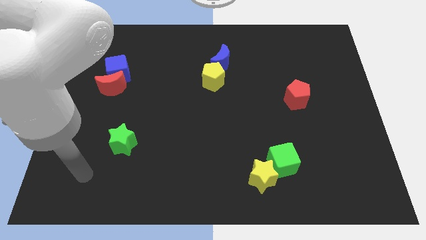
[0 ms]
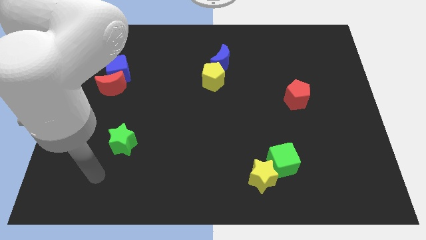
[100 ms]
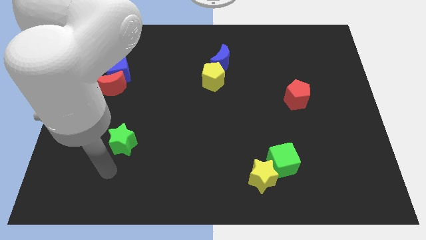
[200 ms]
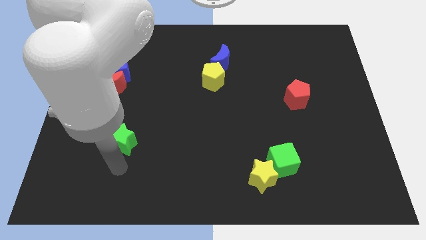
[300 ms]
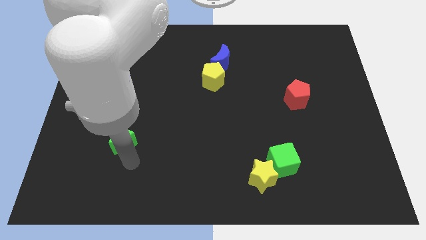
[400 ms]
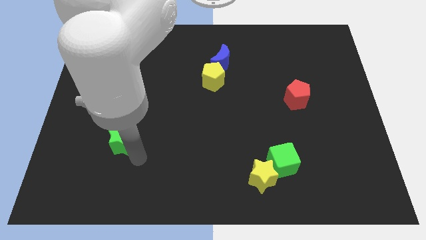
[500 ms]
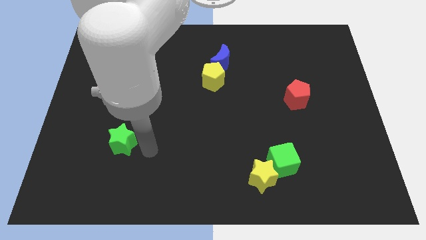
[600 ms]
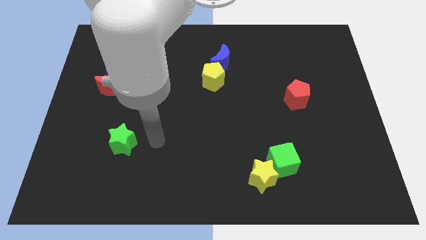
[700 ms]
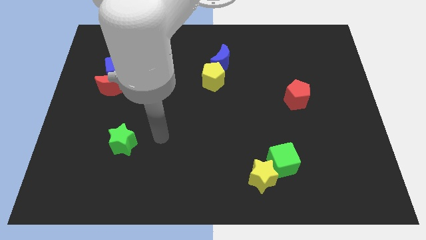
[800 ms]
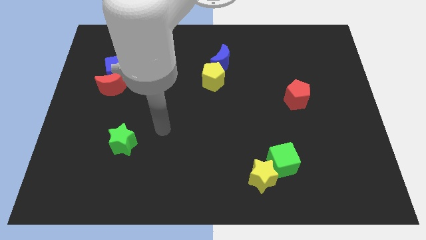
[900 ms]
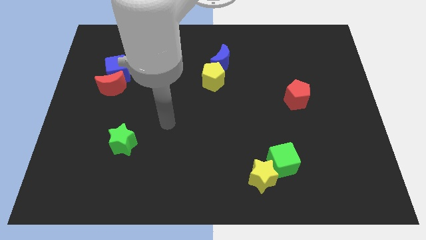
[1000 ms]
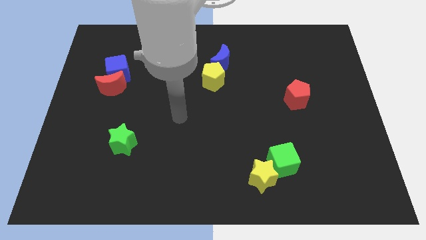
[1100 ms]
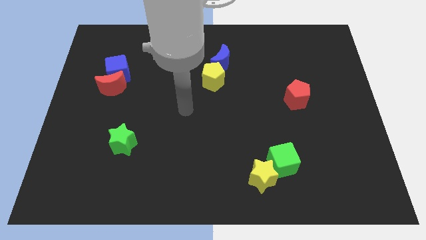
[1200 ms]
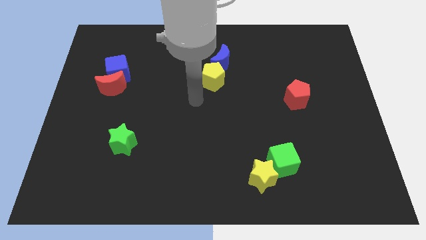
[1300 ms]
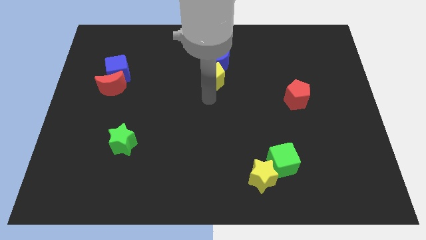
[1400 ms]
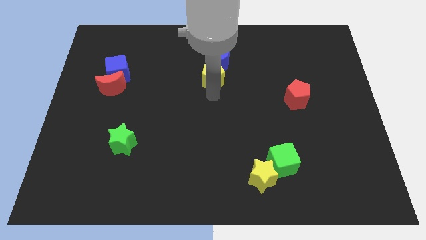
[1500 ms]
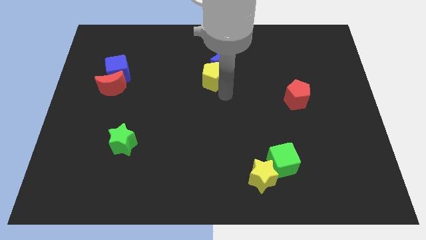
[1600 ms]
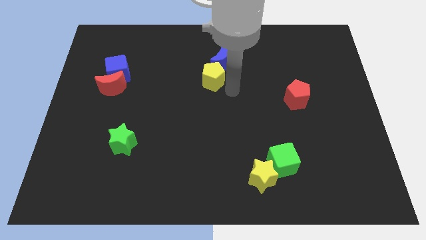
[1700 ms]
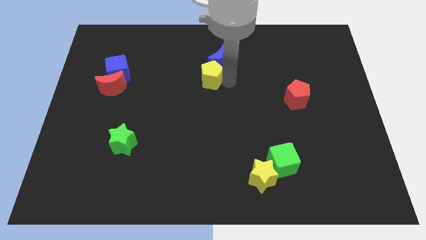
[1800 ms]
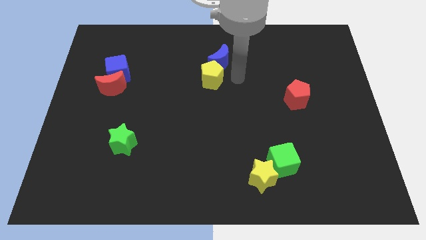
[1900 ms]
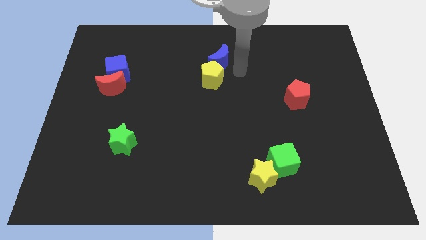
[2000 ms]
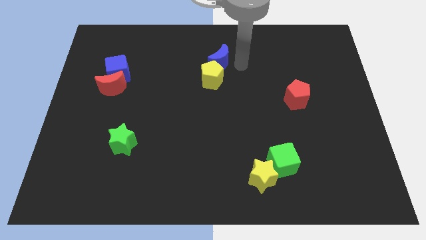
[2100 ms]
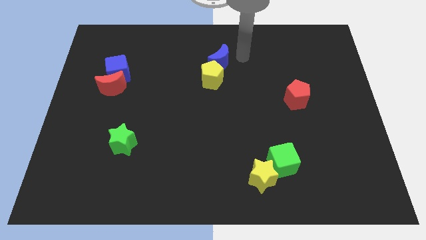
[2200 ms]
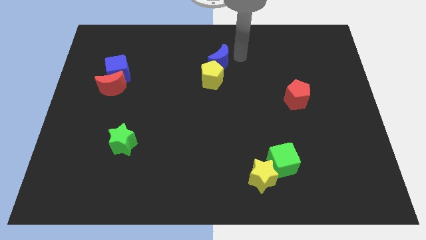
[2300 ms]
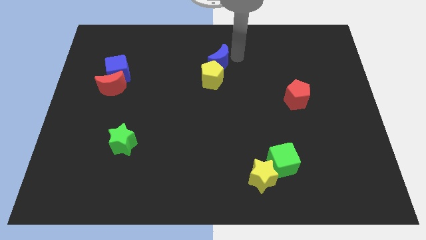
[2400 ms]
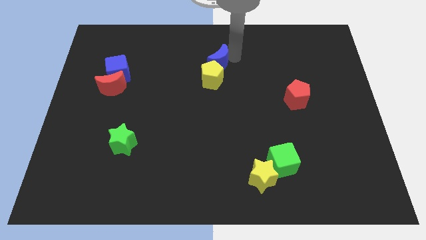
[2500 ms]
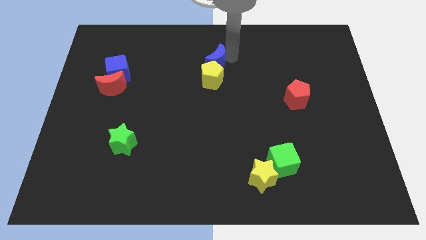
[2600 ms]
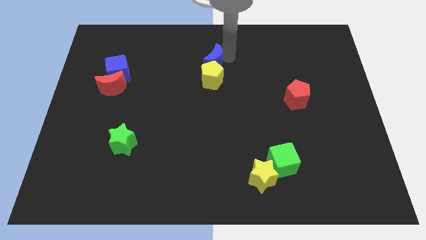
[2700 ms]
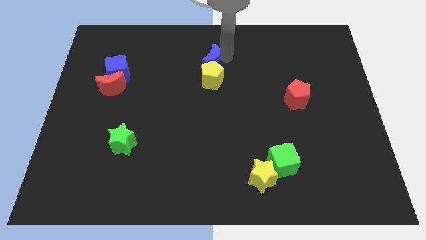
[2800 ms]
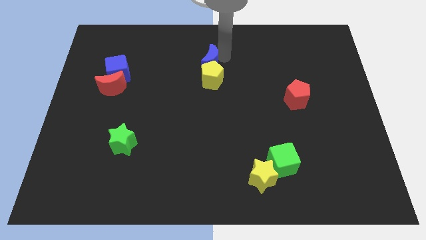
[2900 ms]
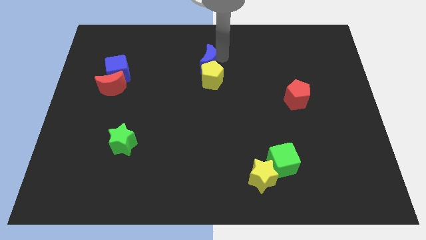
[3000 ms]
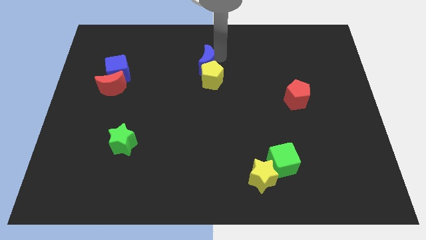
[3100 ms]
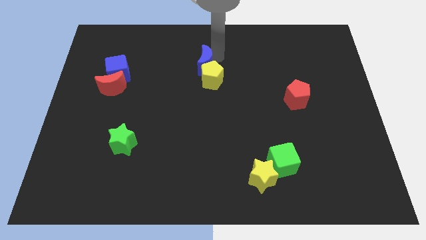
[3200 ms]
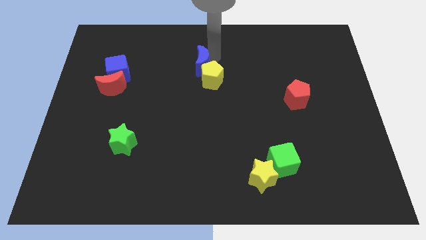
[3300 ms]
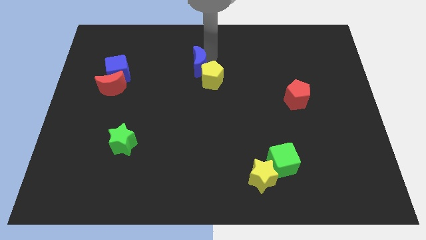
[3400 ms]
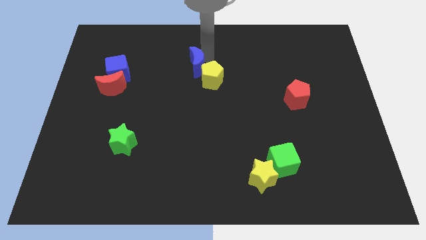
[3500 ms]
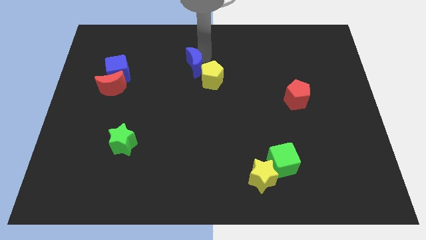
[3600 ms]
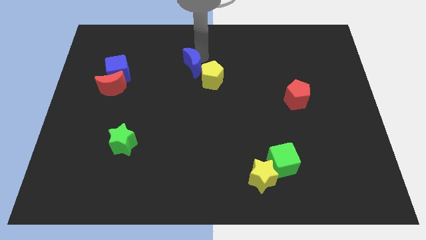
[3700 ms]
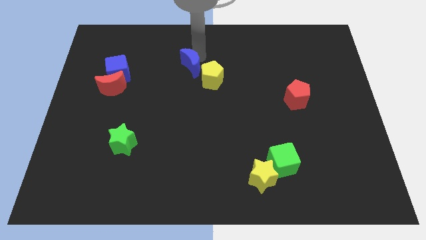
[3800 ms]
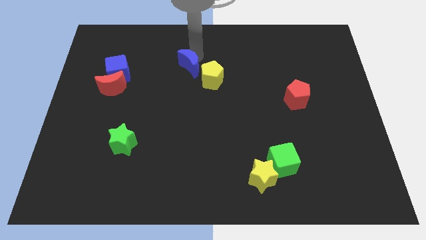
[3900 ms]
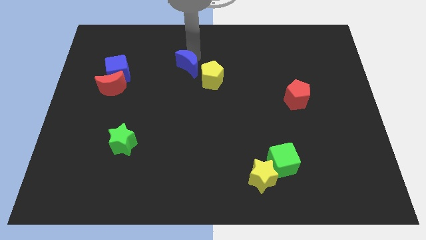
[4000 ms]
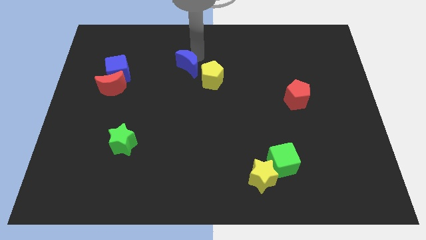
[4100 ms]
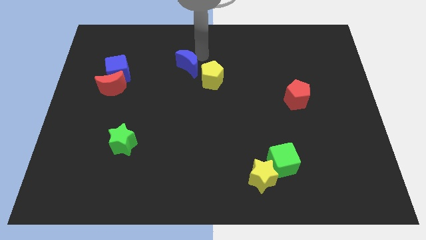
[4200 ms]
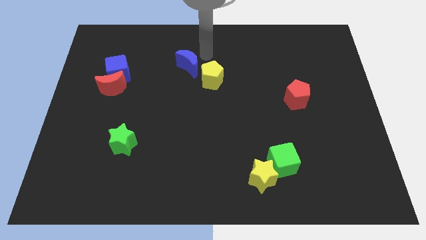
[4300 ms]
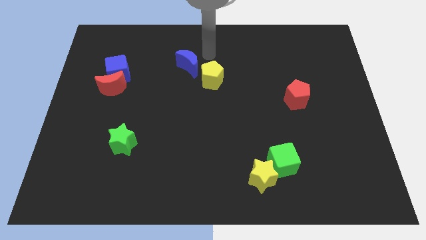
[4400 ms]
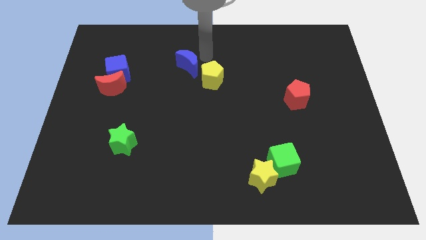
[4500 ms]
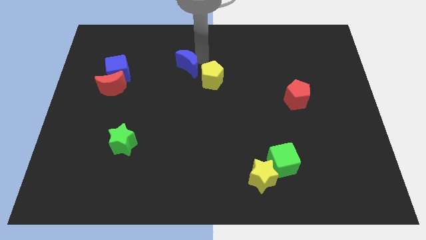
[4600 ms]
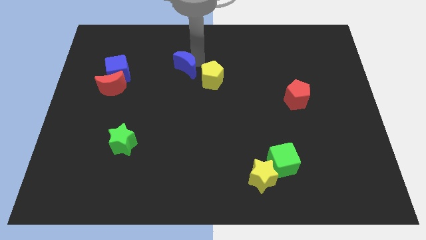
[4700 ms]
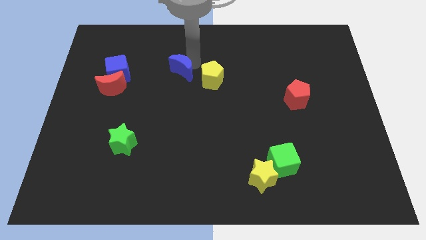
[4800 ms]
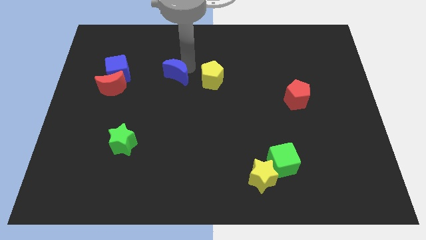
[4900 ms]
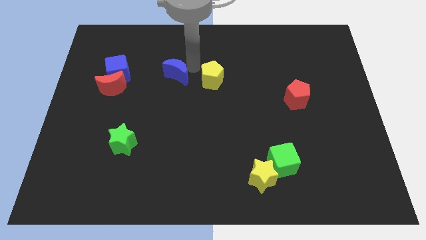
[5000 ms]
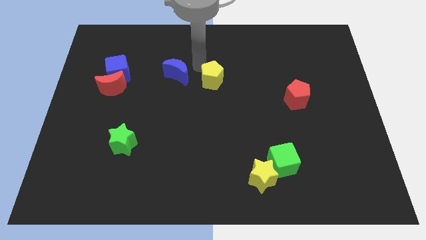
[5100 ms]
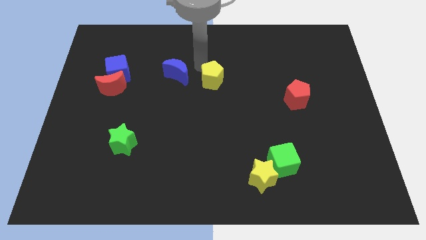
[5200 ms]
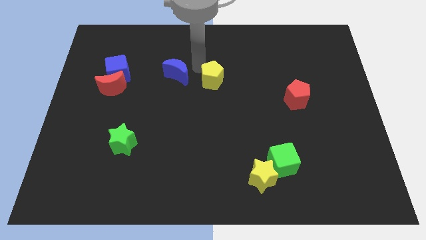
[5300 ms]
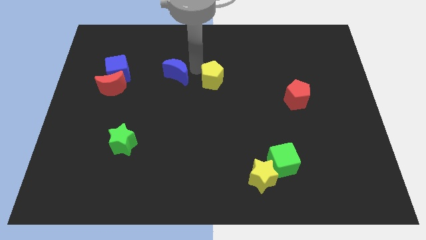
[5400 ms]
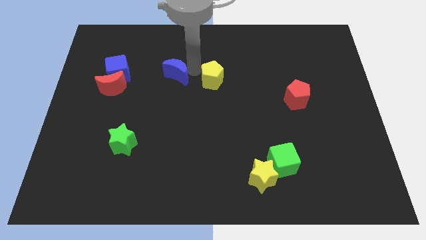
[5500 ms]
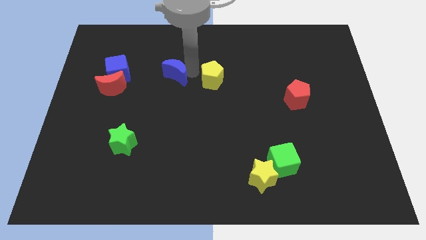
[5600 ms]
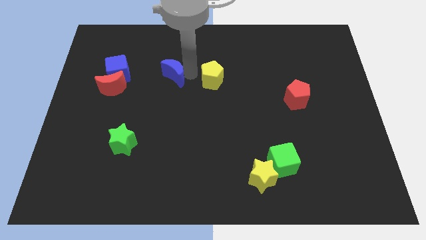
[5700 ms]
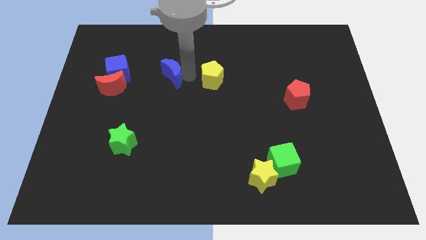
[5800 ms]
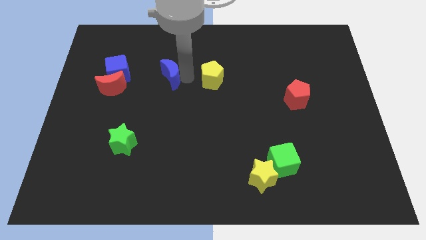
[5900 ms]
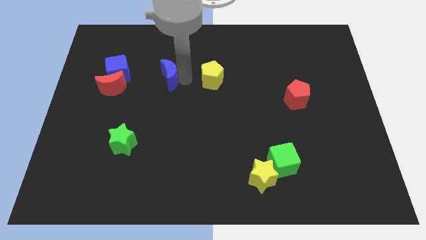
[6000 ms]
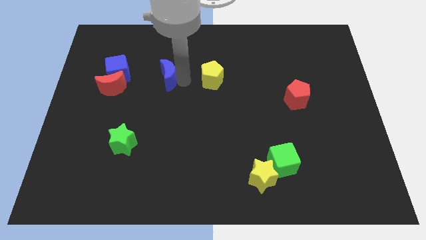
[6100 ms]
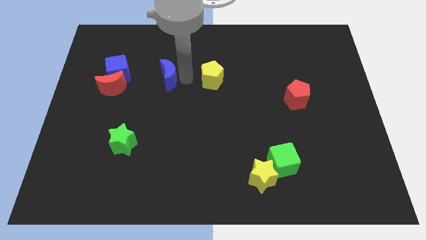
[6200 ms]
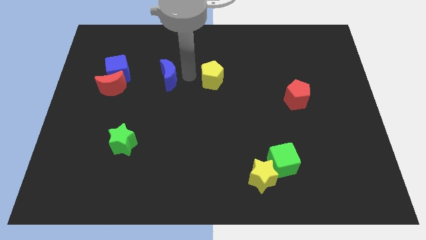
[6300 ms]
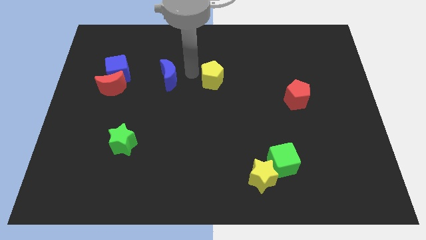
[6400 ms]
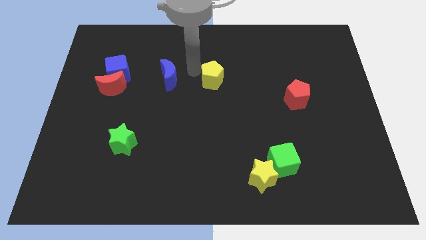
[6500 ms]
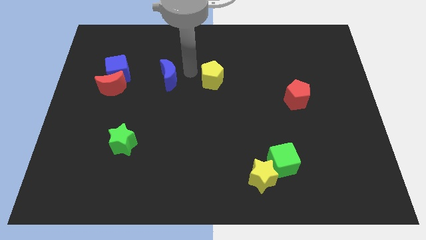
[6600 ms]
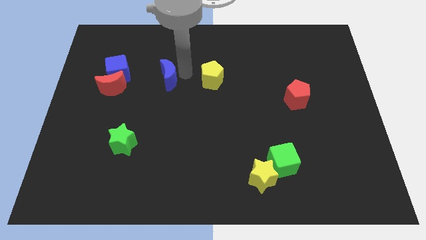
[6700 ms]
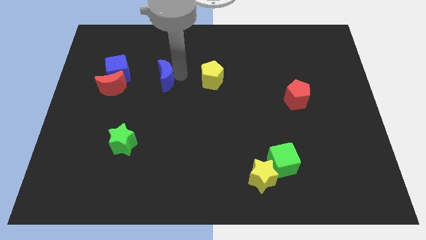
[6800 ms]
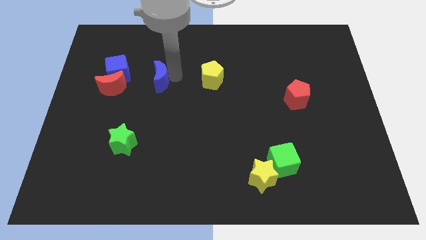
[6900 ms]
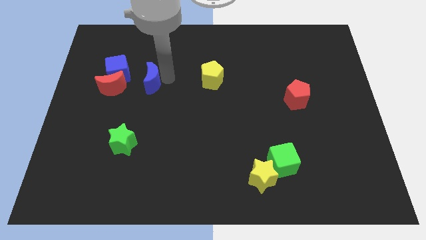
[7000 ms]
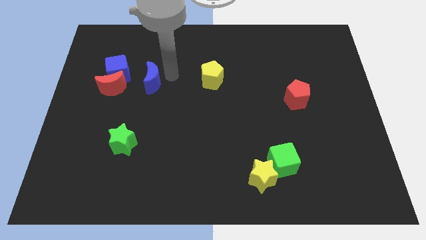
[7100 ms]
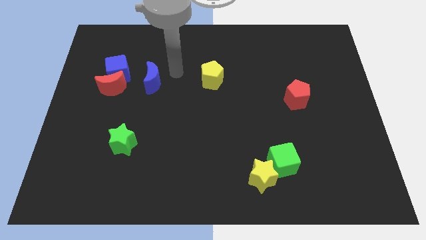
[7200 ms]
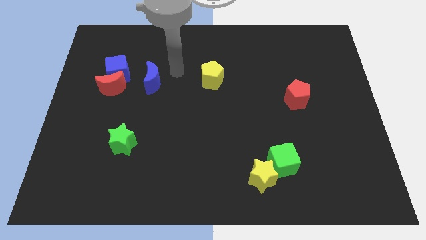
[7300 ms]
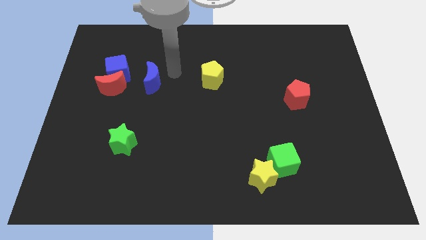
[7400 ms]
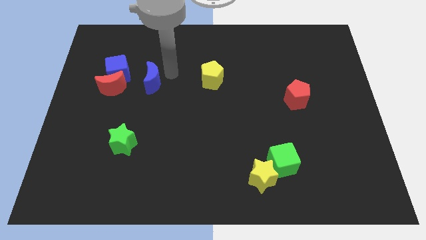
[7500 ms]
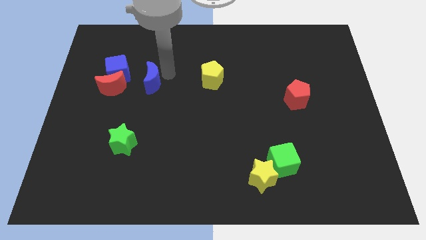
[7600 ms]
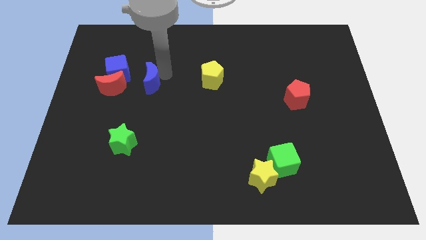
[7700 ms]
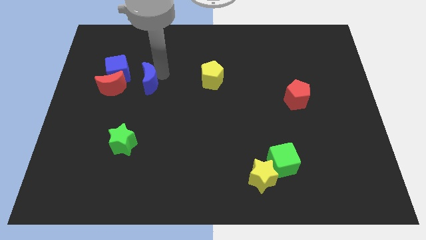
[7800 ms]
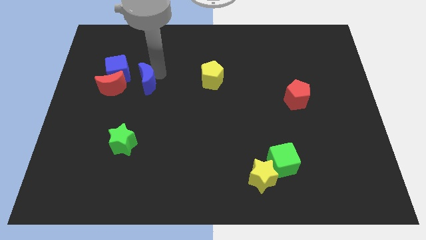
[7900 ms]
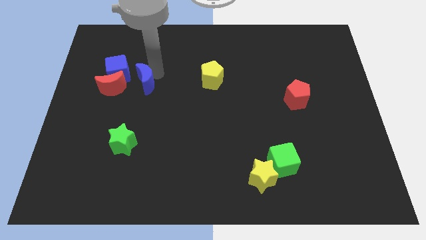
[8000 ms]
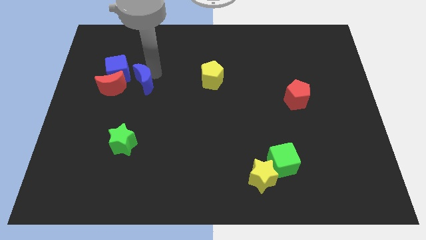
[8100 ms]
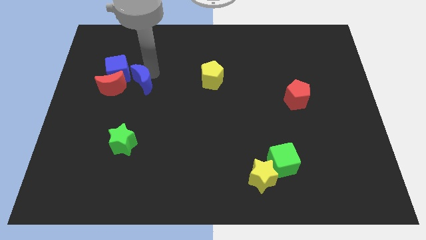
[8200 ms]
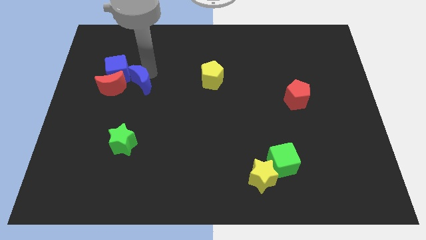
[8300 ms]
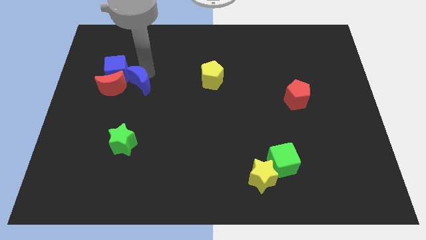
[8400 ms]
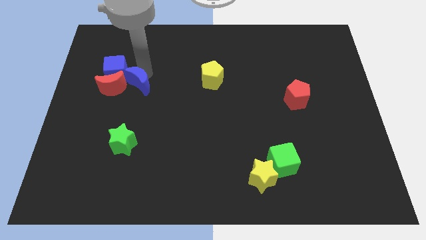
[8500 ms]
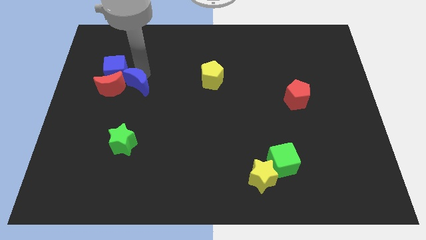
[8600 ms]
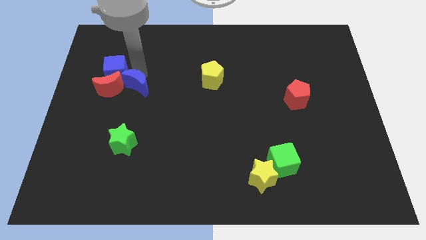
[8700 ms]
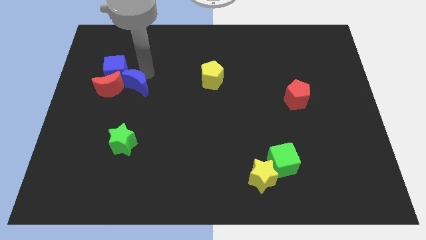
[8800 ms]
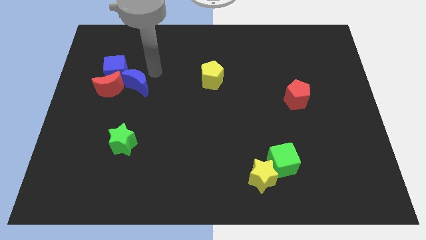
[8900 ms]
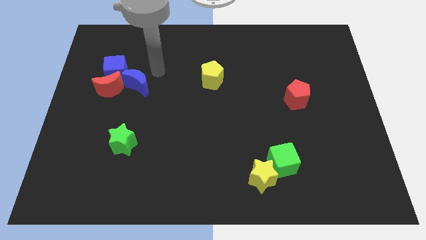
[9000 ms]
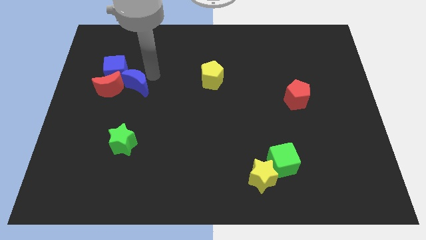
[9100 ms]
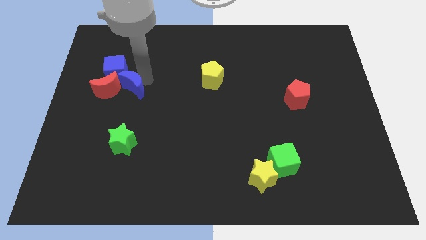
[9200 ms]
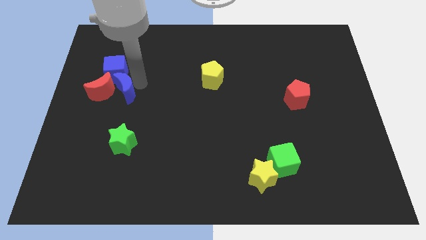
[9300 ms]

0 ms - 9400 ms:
move the blue moon below the blue cube
